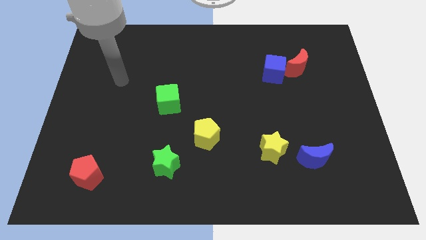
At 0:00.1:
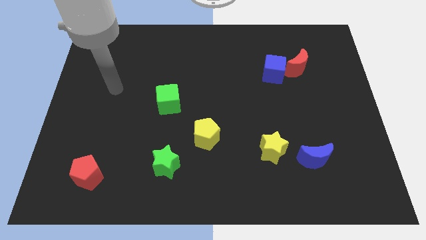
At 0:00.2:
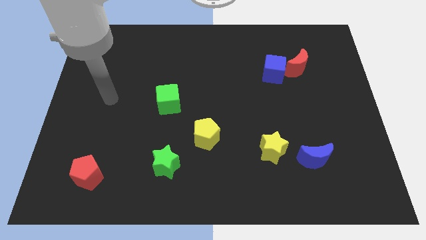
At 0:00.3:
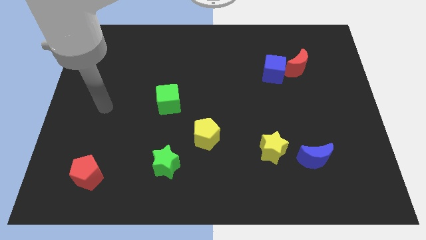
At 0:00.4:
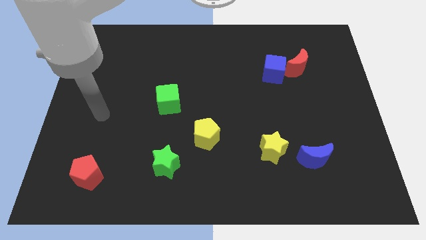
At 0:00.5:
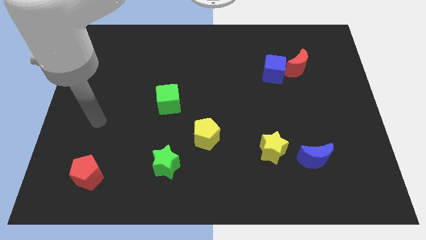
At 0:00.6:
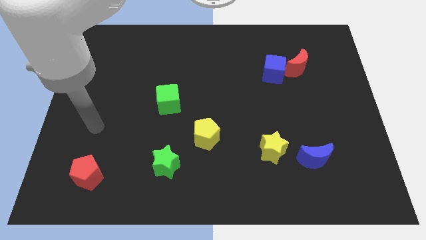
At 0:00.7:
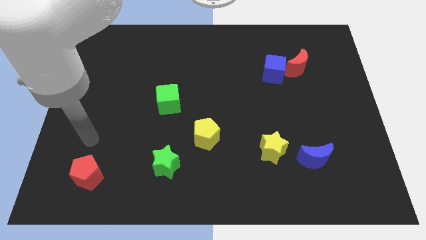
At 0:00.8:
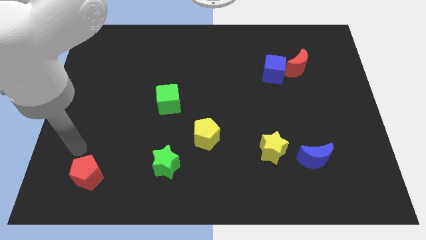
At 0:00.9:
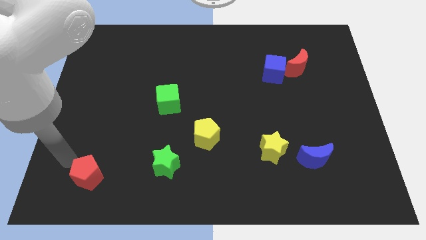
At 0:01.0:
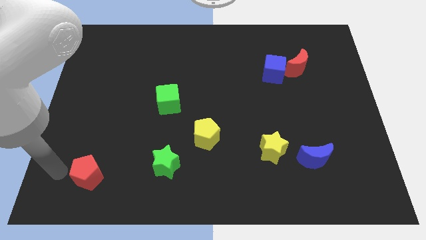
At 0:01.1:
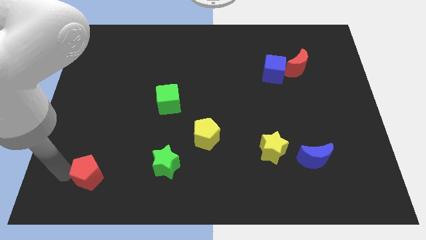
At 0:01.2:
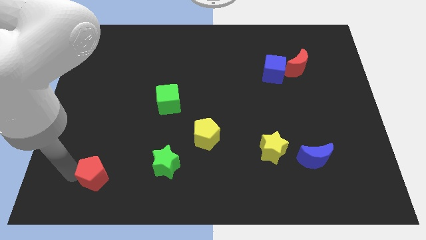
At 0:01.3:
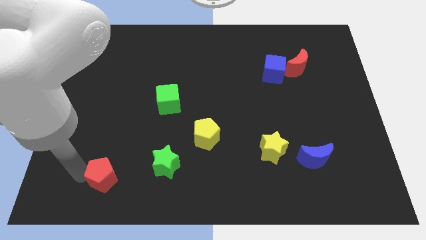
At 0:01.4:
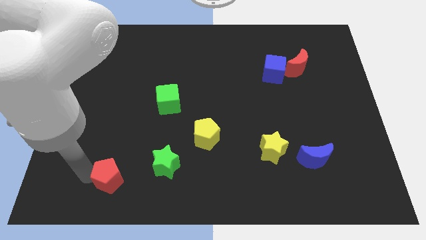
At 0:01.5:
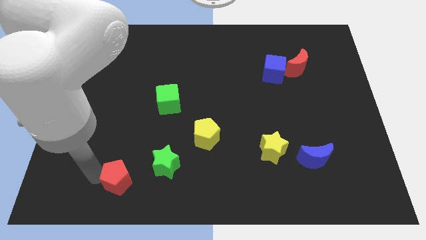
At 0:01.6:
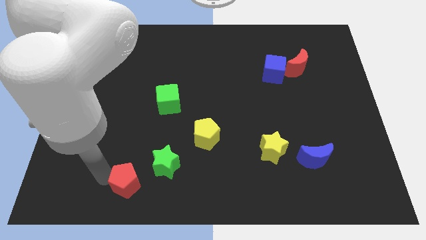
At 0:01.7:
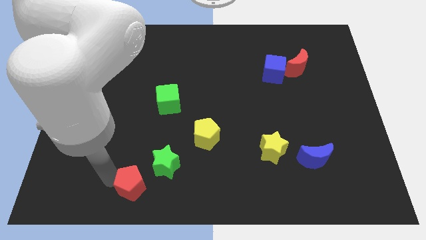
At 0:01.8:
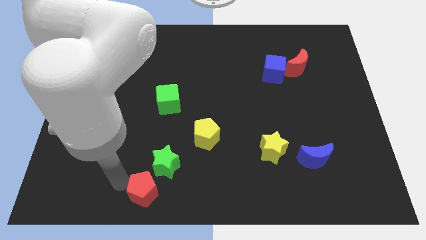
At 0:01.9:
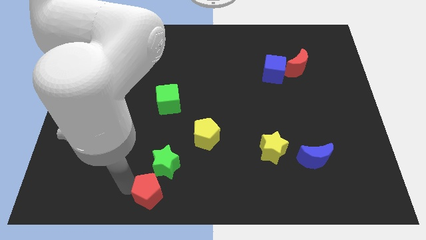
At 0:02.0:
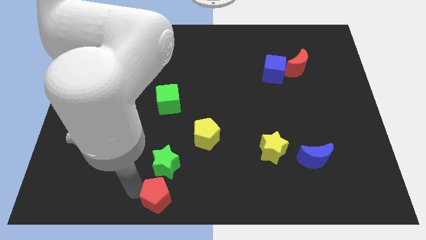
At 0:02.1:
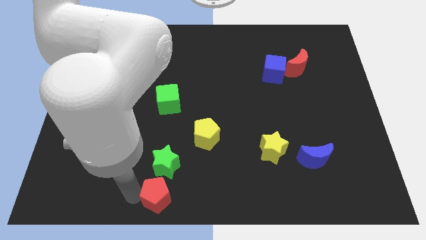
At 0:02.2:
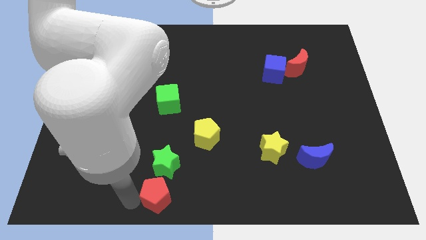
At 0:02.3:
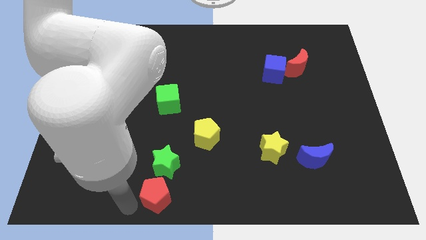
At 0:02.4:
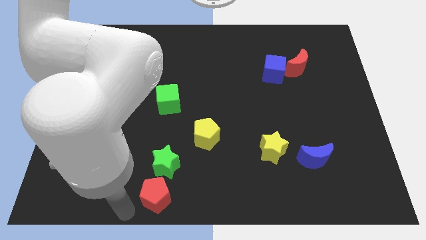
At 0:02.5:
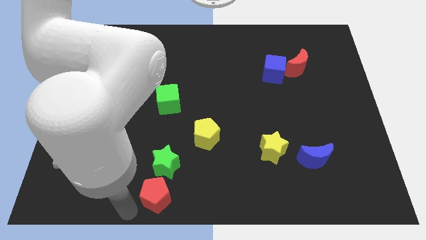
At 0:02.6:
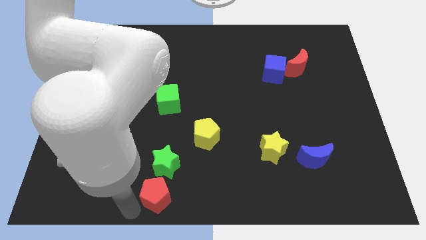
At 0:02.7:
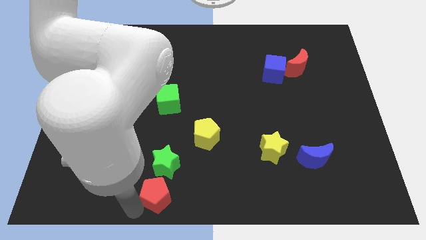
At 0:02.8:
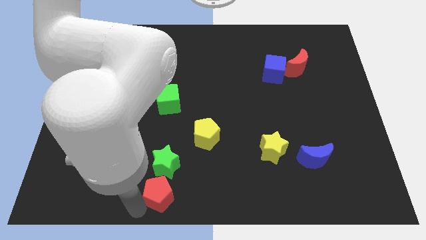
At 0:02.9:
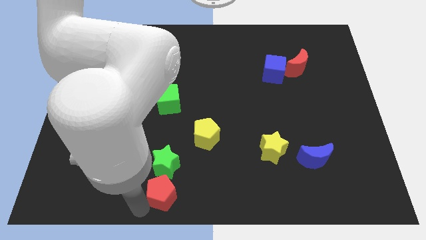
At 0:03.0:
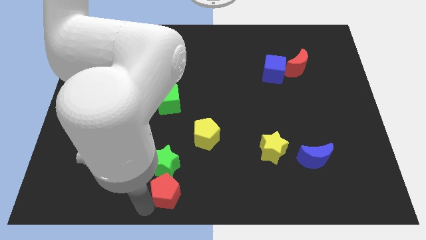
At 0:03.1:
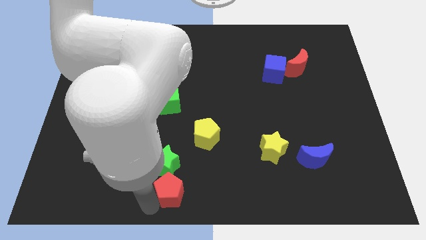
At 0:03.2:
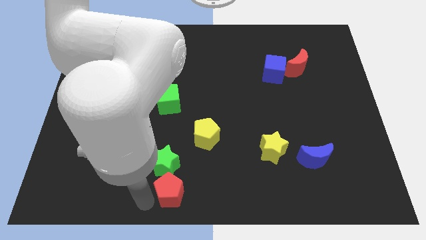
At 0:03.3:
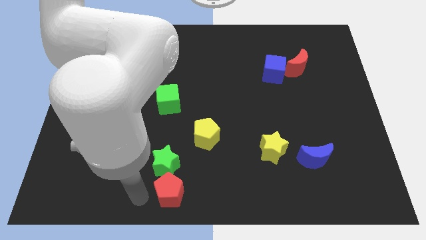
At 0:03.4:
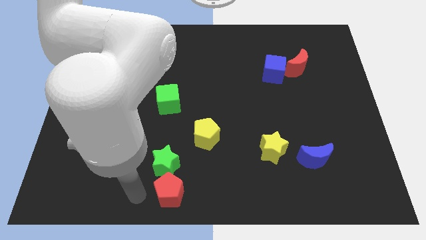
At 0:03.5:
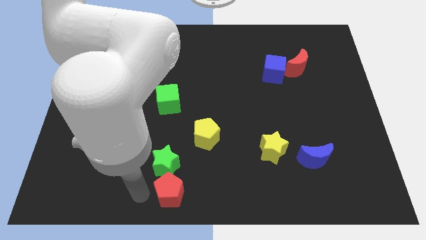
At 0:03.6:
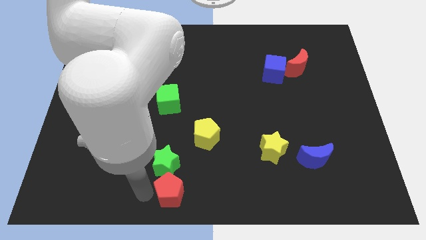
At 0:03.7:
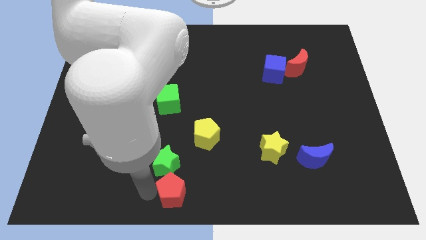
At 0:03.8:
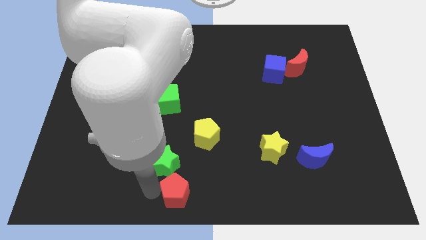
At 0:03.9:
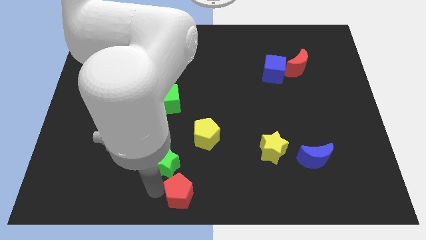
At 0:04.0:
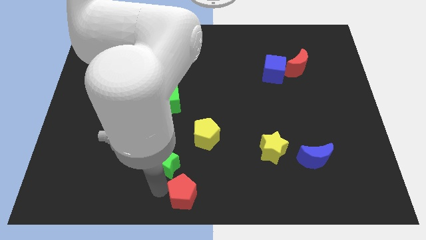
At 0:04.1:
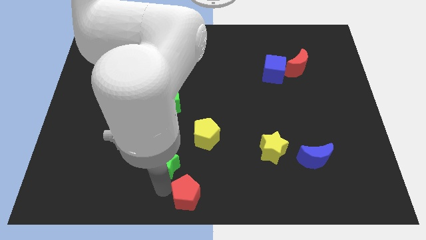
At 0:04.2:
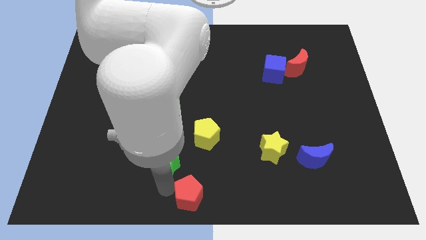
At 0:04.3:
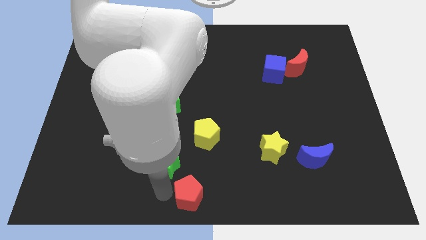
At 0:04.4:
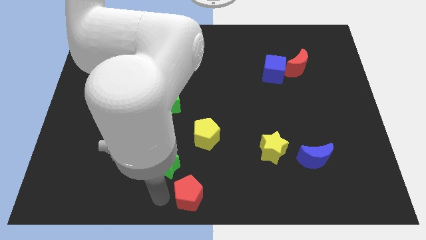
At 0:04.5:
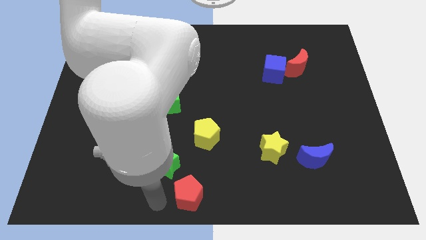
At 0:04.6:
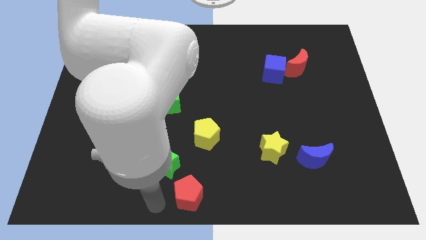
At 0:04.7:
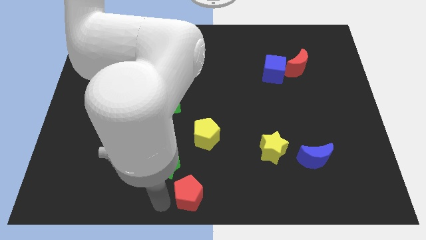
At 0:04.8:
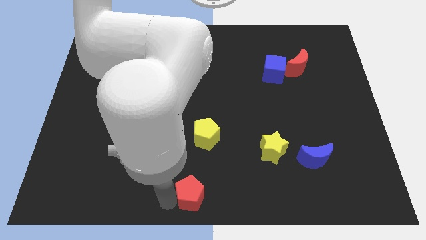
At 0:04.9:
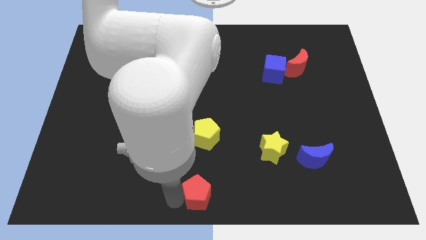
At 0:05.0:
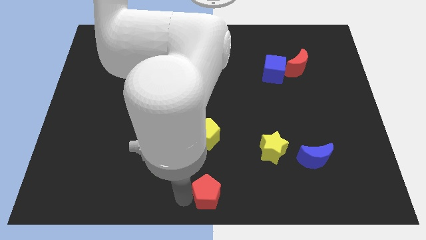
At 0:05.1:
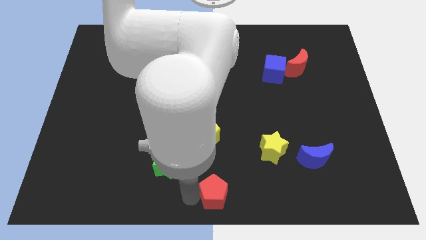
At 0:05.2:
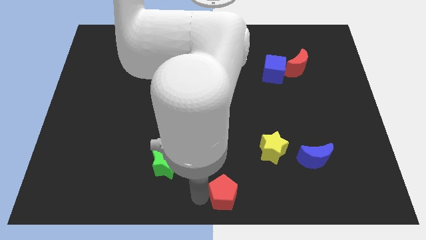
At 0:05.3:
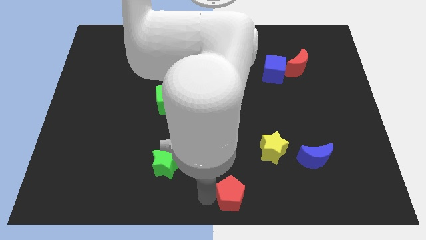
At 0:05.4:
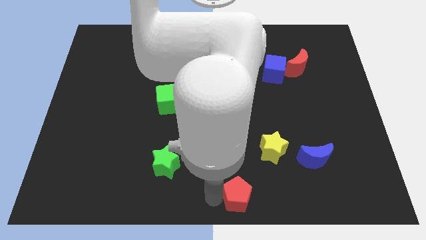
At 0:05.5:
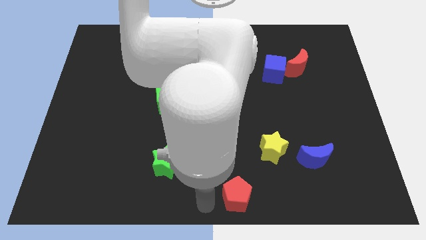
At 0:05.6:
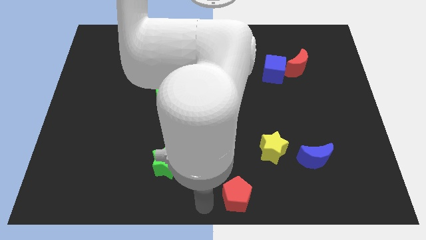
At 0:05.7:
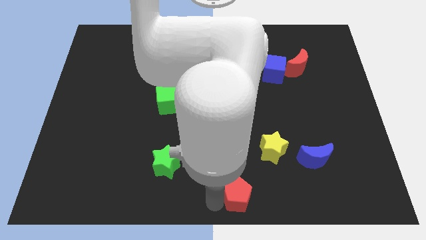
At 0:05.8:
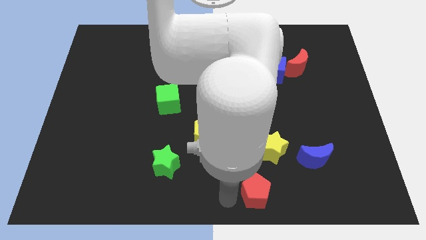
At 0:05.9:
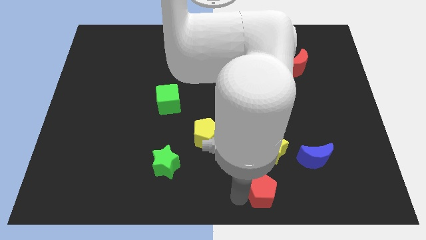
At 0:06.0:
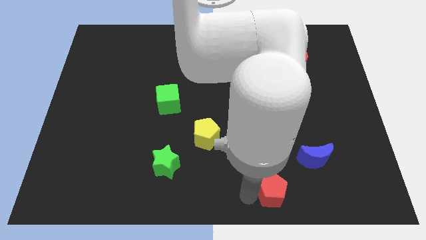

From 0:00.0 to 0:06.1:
push the red pentagon to the bottom left side of the blue moon

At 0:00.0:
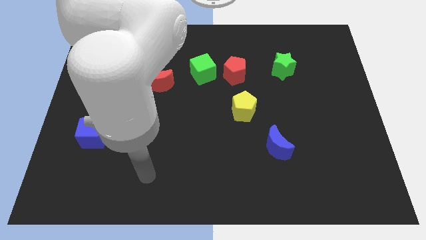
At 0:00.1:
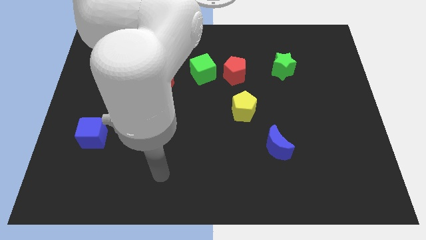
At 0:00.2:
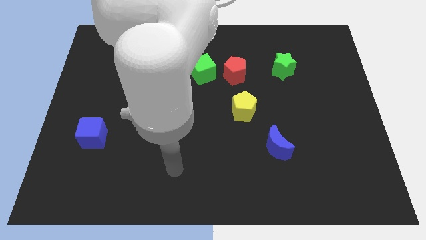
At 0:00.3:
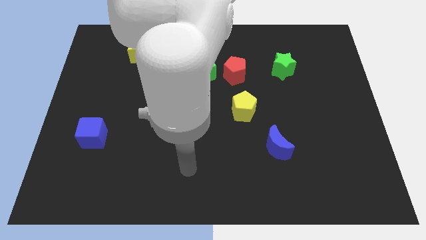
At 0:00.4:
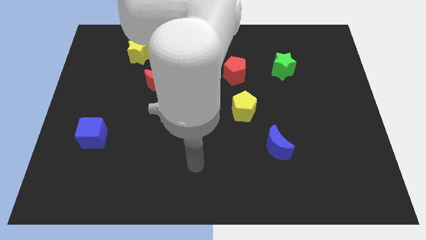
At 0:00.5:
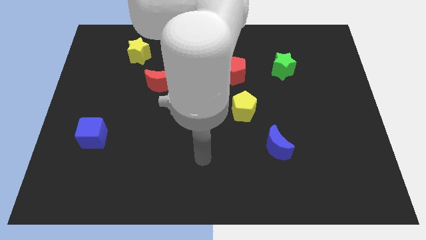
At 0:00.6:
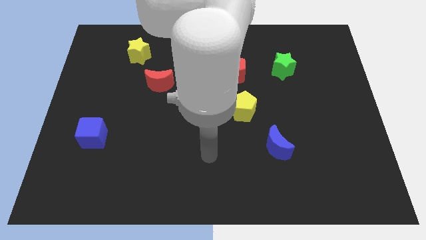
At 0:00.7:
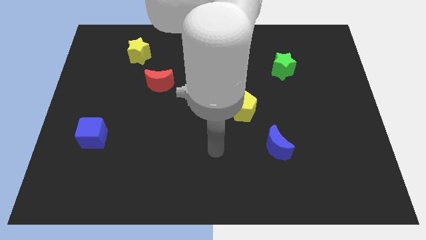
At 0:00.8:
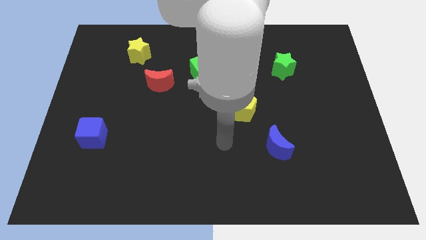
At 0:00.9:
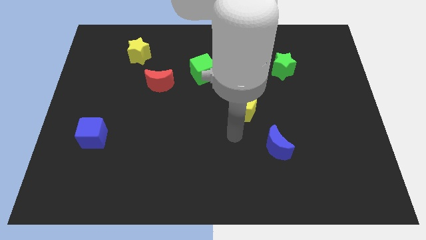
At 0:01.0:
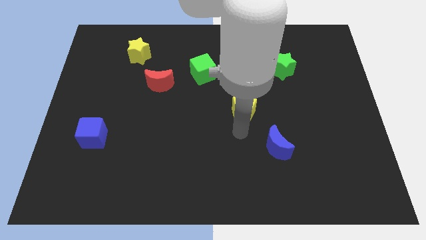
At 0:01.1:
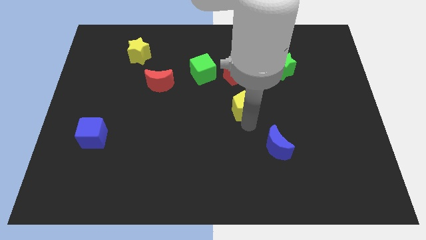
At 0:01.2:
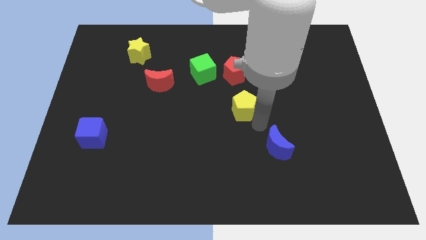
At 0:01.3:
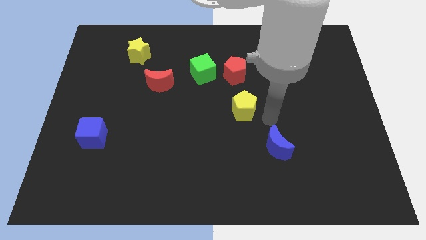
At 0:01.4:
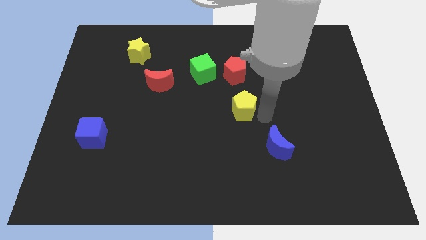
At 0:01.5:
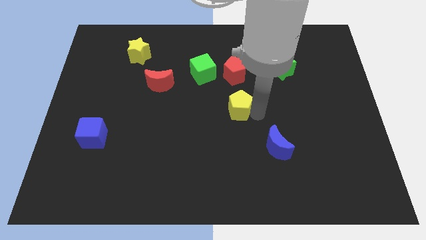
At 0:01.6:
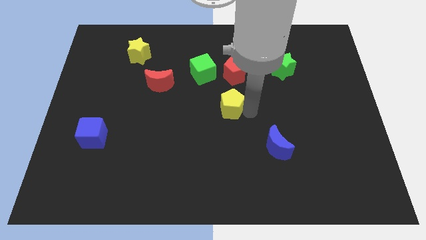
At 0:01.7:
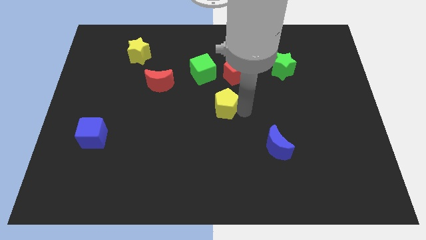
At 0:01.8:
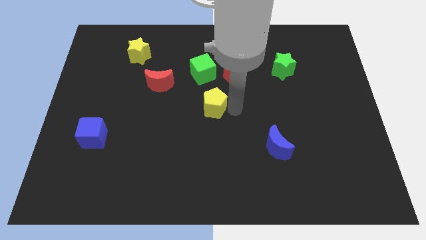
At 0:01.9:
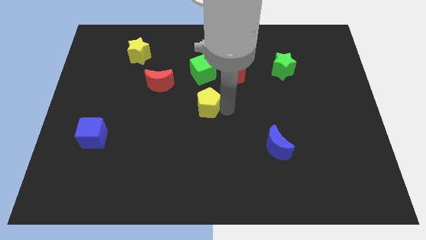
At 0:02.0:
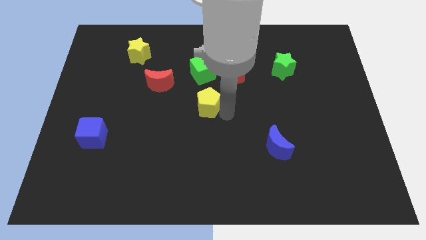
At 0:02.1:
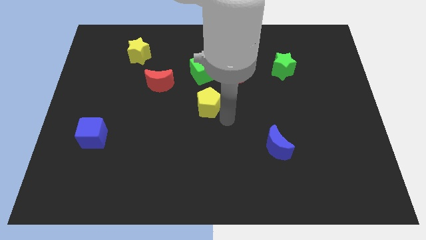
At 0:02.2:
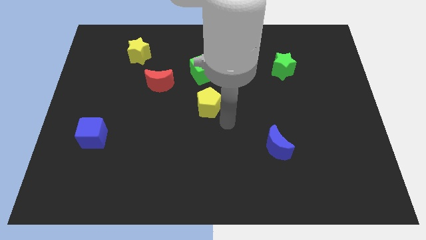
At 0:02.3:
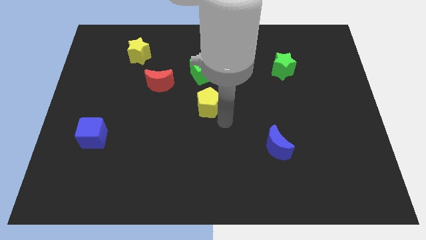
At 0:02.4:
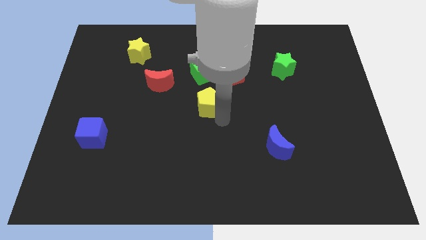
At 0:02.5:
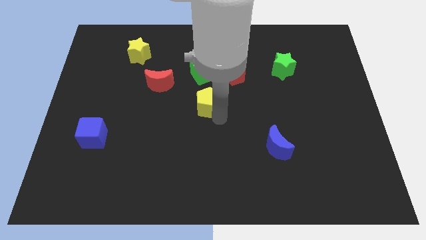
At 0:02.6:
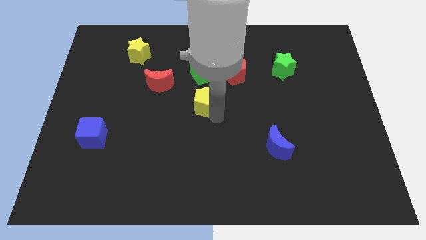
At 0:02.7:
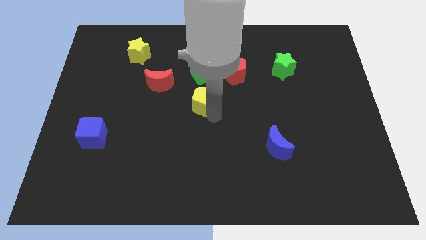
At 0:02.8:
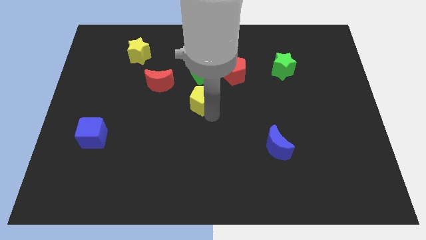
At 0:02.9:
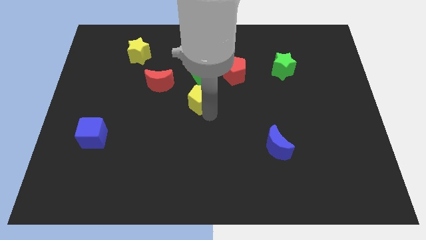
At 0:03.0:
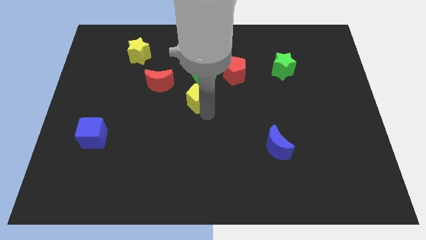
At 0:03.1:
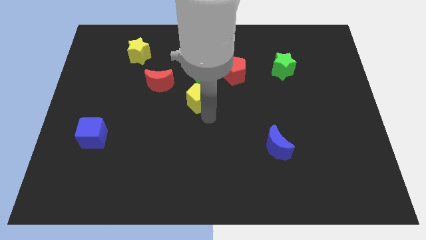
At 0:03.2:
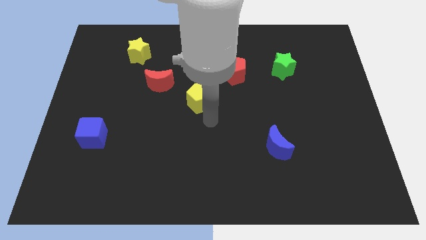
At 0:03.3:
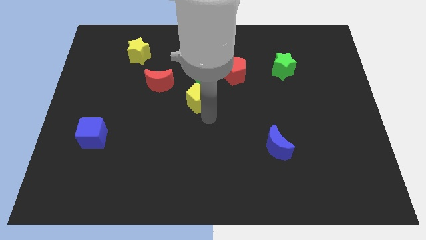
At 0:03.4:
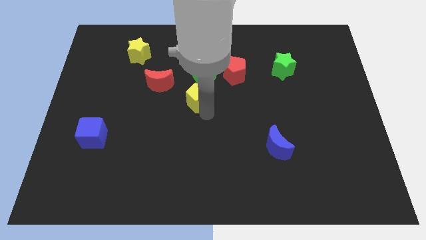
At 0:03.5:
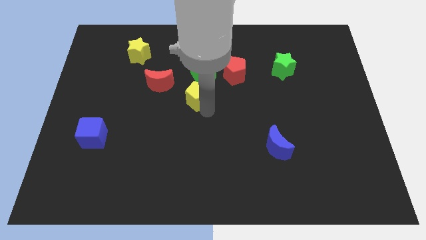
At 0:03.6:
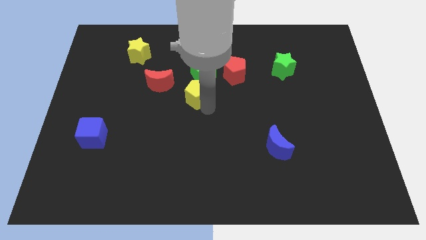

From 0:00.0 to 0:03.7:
push the yellow pentagon to the bottom left of the green cube
